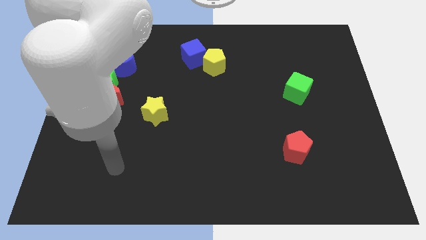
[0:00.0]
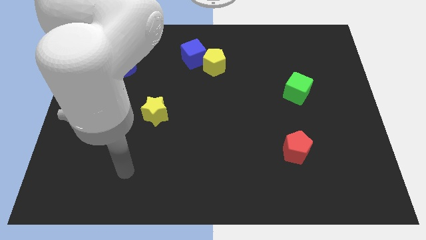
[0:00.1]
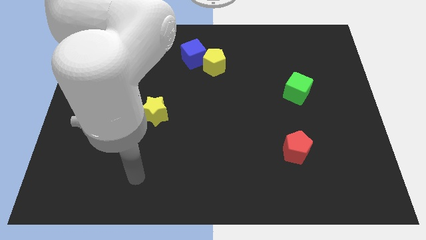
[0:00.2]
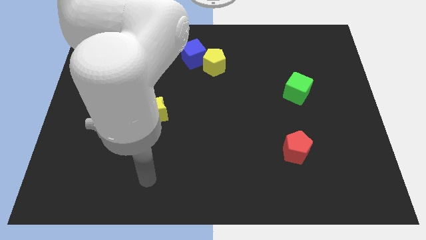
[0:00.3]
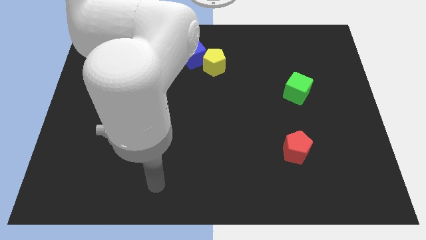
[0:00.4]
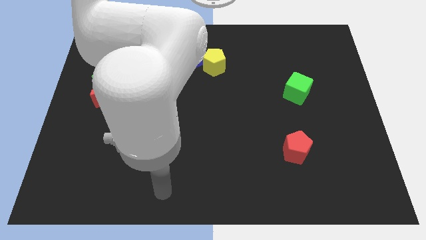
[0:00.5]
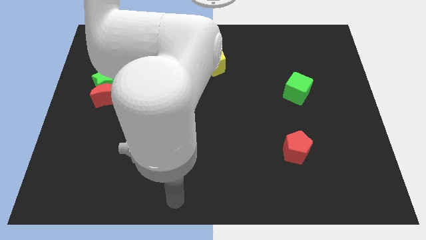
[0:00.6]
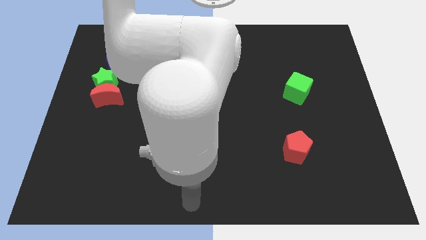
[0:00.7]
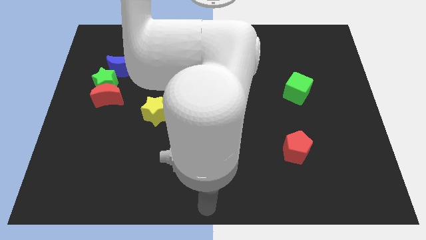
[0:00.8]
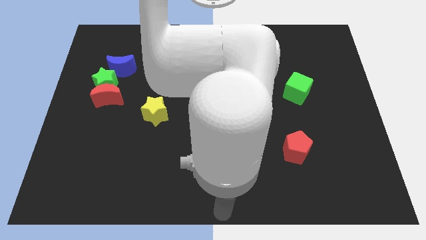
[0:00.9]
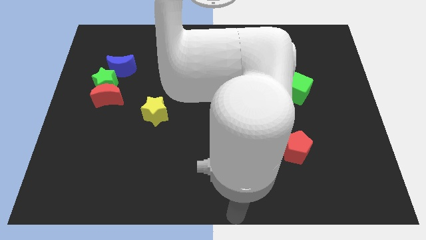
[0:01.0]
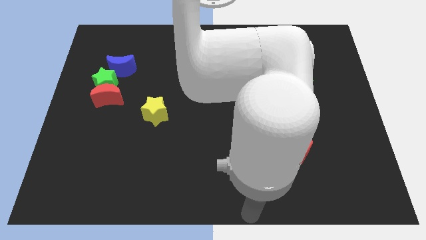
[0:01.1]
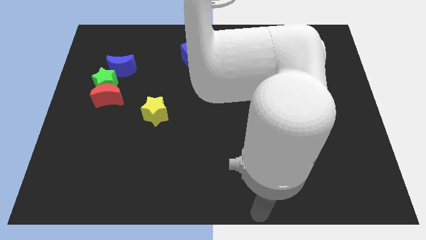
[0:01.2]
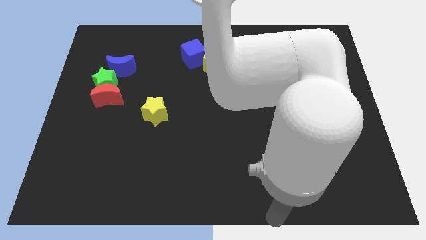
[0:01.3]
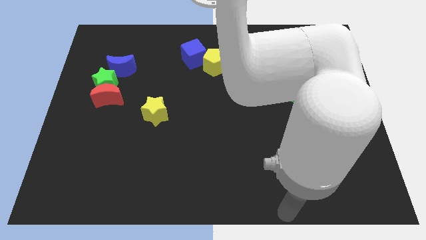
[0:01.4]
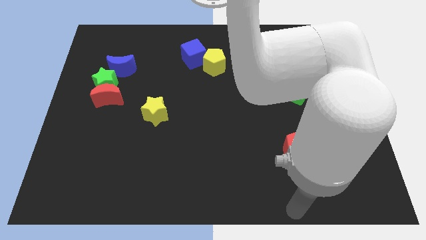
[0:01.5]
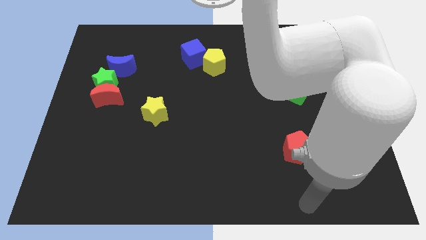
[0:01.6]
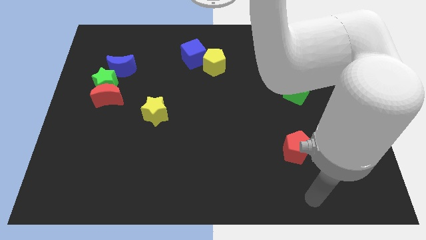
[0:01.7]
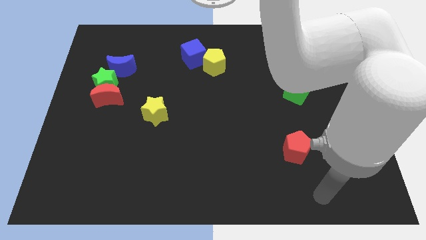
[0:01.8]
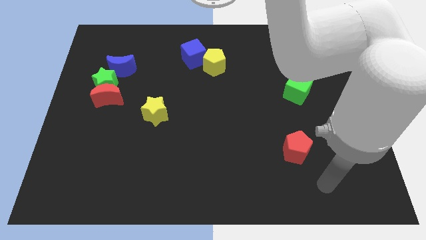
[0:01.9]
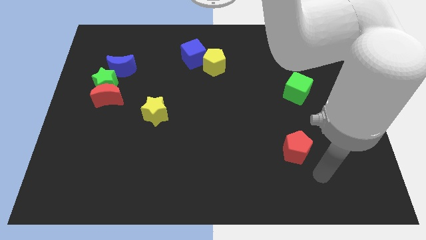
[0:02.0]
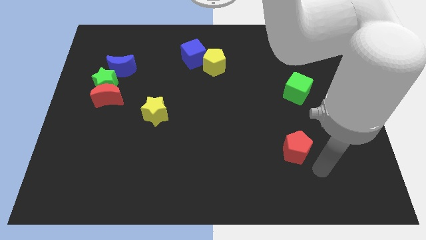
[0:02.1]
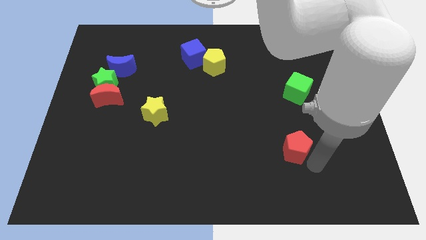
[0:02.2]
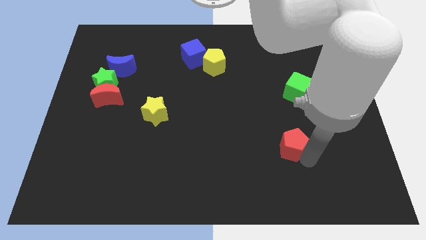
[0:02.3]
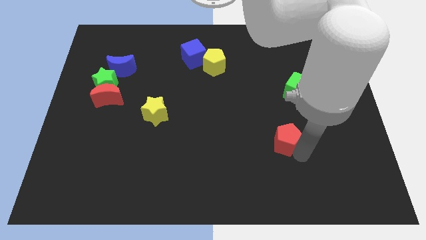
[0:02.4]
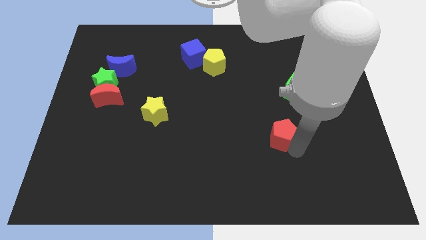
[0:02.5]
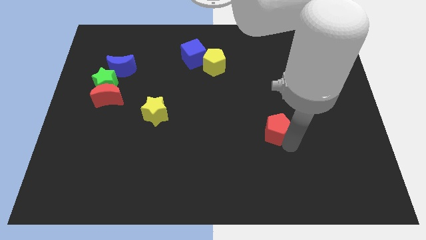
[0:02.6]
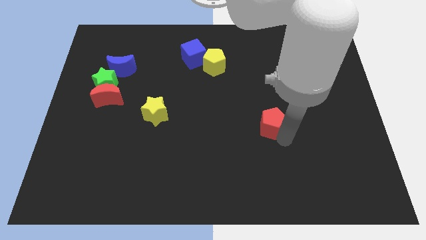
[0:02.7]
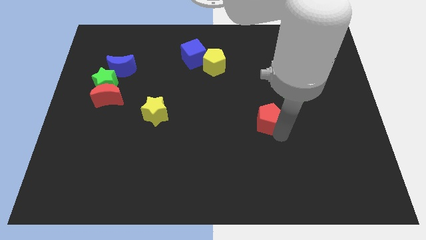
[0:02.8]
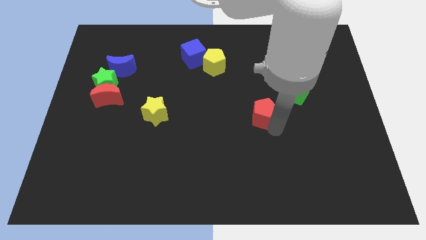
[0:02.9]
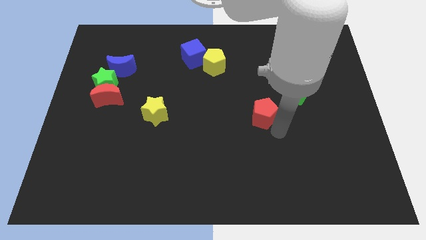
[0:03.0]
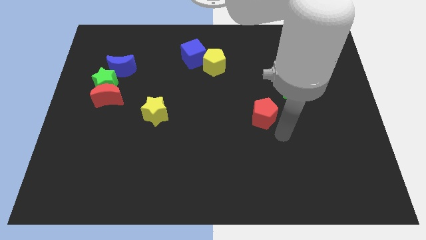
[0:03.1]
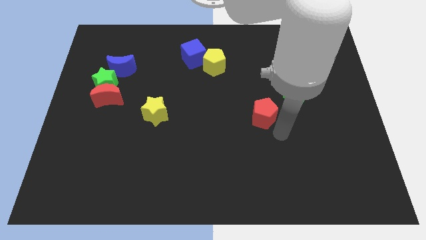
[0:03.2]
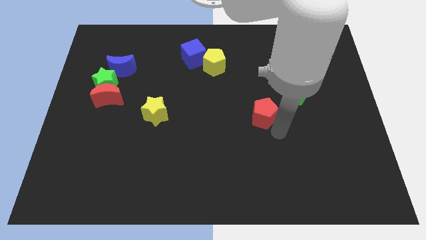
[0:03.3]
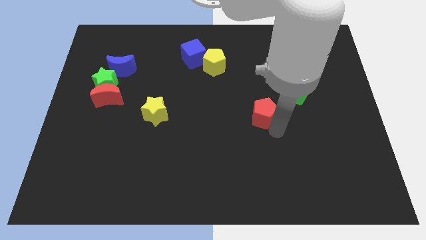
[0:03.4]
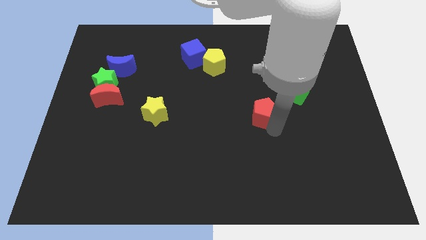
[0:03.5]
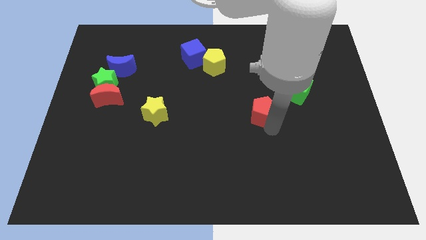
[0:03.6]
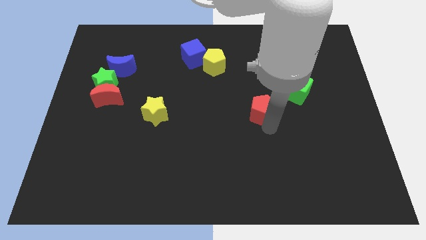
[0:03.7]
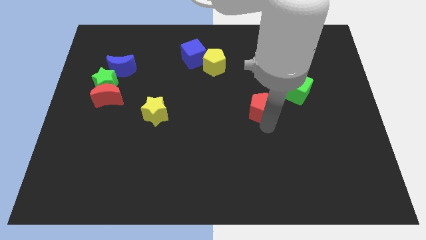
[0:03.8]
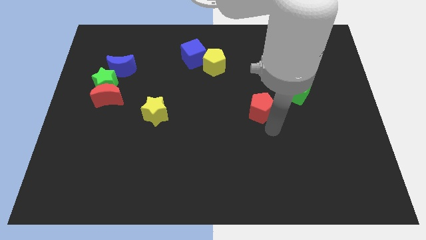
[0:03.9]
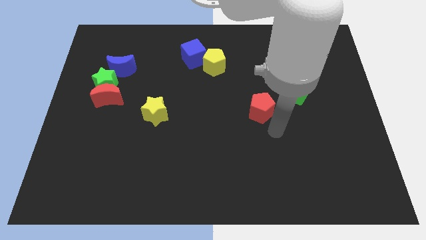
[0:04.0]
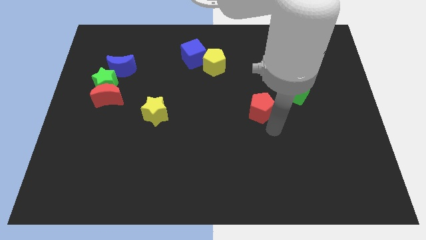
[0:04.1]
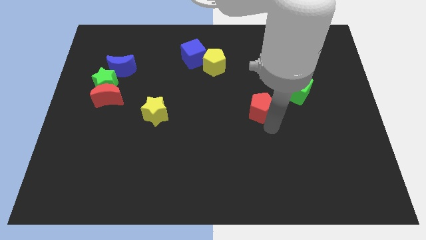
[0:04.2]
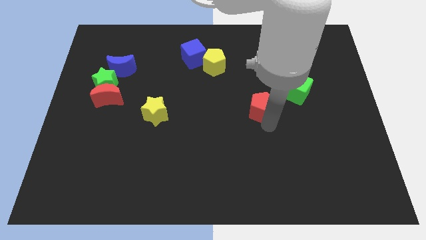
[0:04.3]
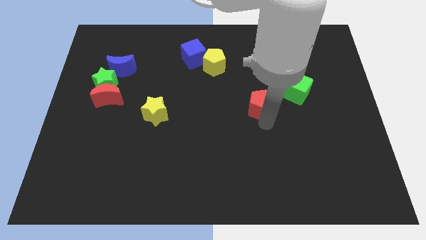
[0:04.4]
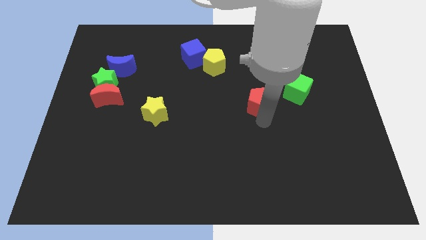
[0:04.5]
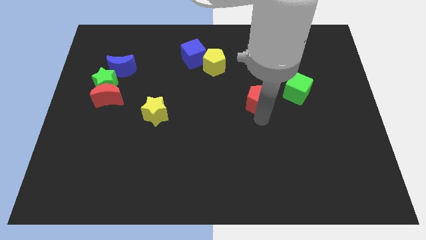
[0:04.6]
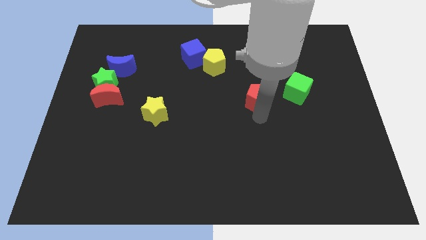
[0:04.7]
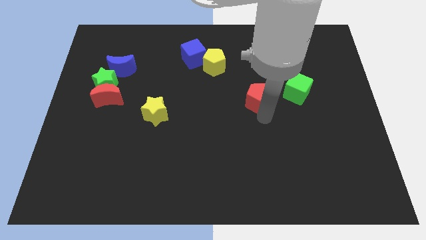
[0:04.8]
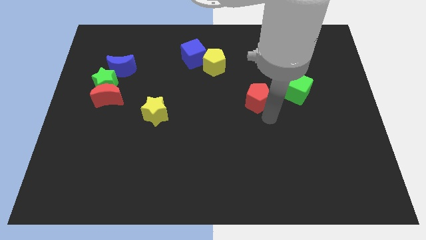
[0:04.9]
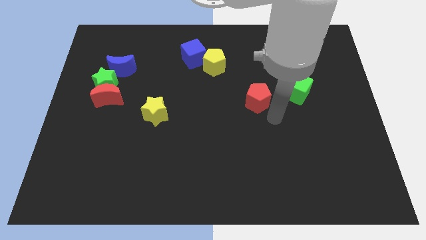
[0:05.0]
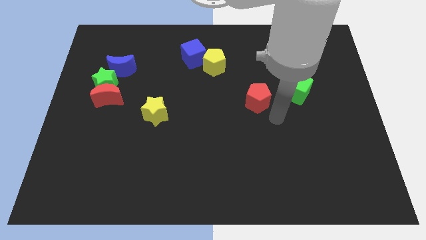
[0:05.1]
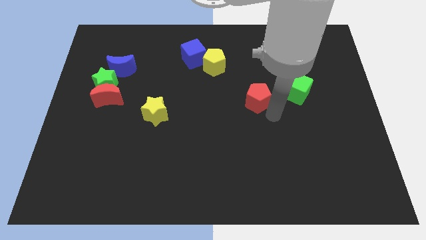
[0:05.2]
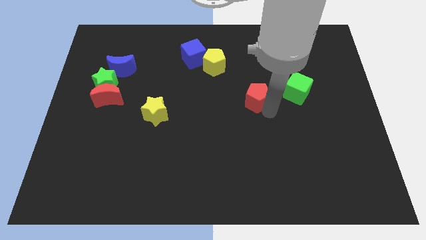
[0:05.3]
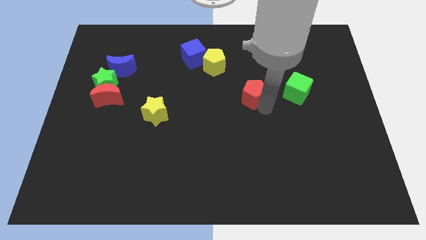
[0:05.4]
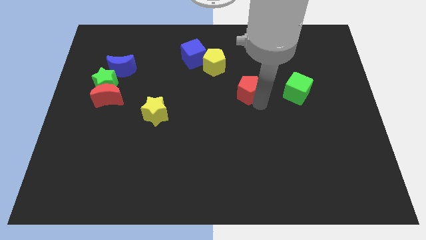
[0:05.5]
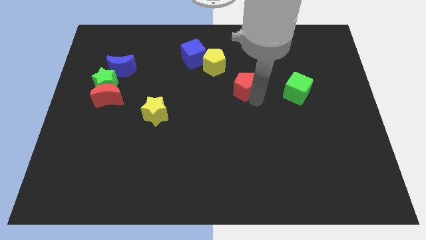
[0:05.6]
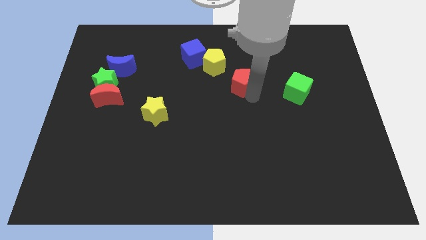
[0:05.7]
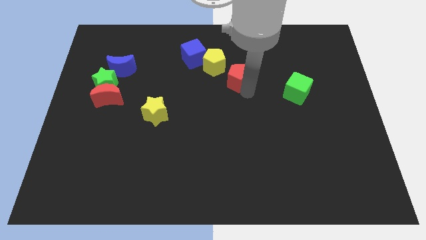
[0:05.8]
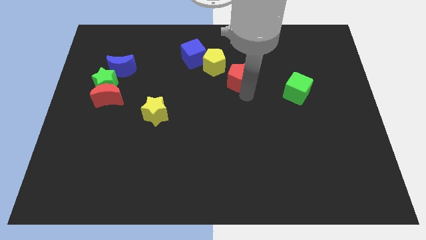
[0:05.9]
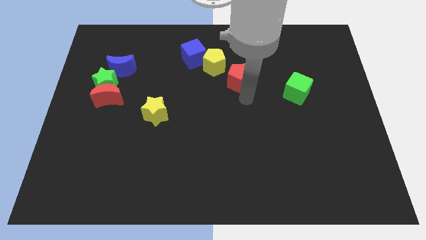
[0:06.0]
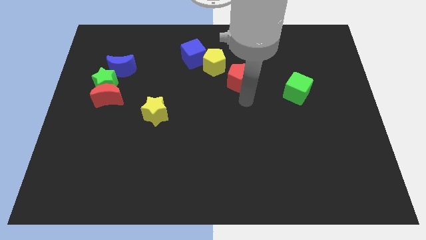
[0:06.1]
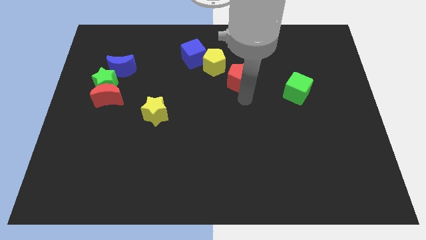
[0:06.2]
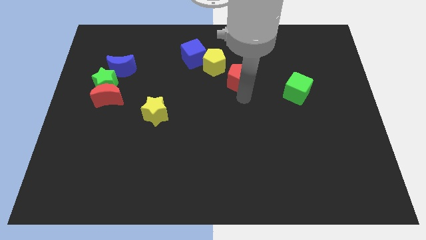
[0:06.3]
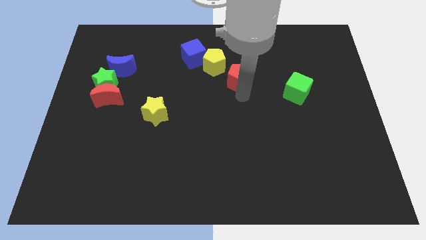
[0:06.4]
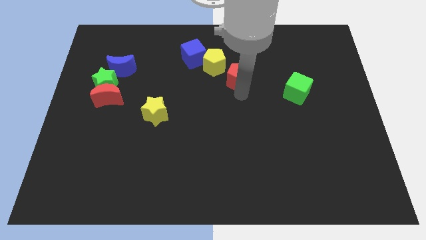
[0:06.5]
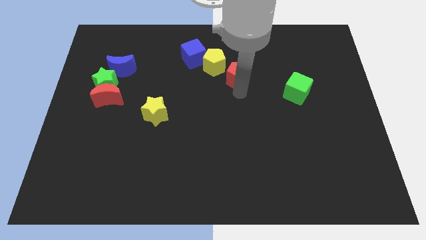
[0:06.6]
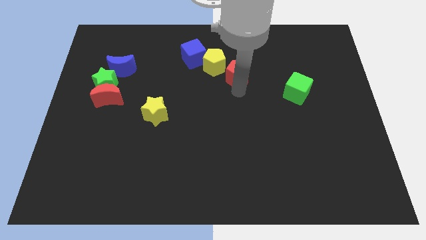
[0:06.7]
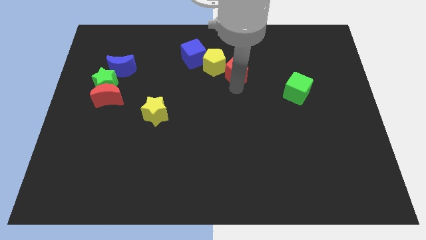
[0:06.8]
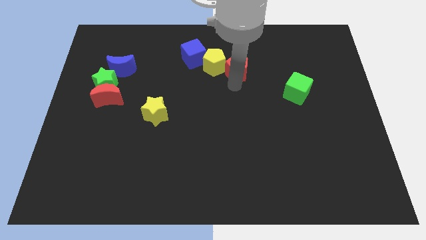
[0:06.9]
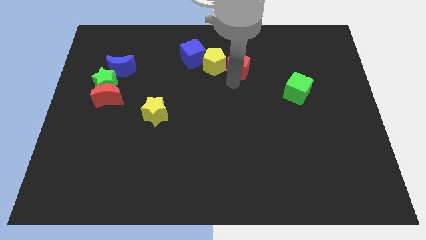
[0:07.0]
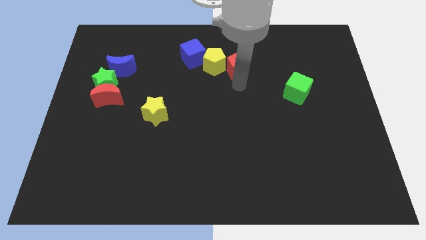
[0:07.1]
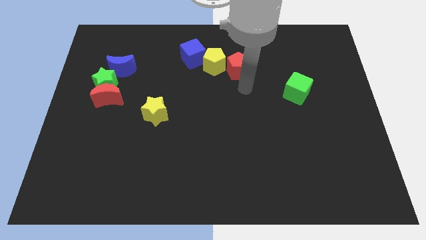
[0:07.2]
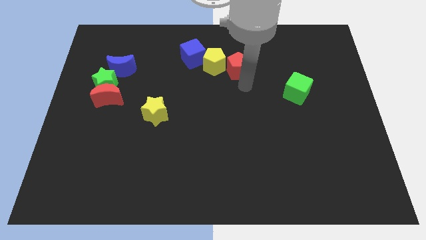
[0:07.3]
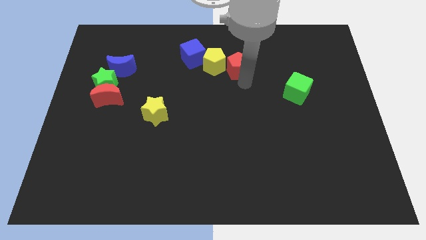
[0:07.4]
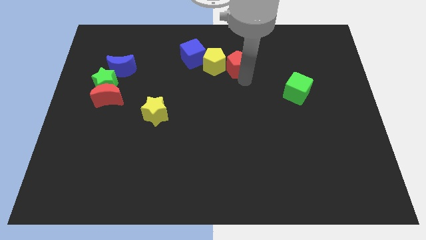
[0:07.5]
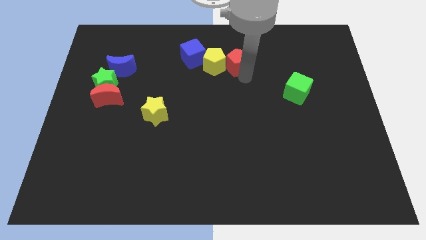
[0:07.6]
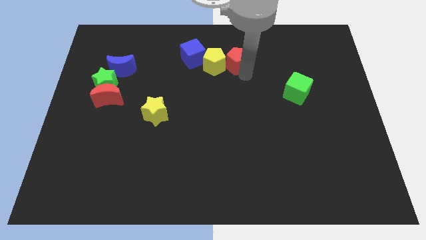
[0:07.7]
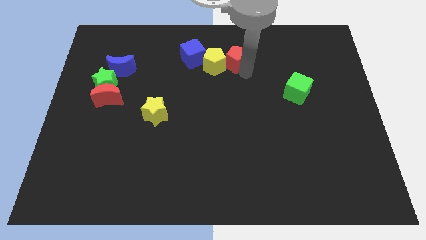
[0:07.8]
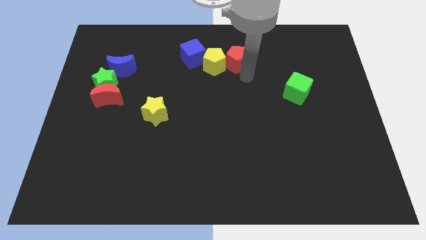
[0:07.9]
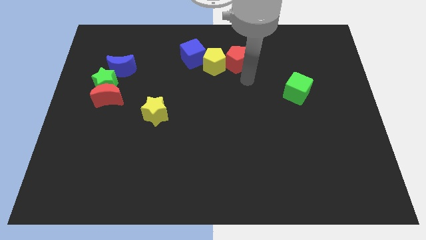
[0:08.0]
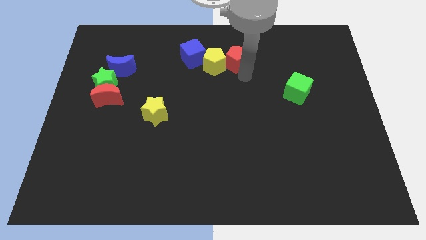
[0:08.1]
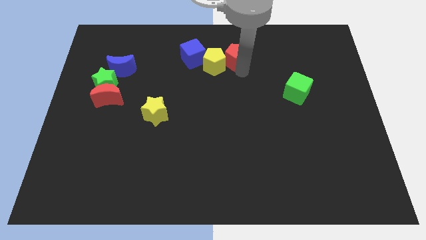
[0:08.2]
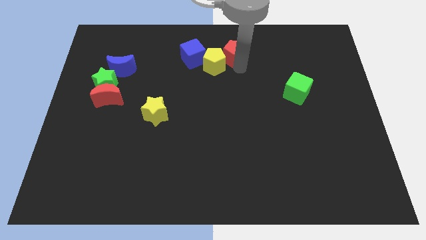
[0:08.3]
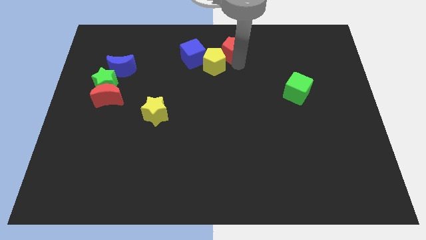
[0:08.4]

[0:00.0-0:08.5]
slide the red pentagon to the top side
